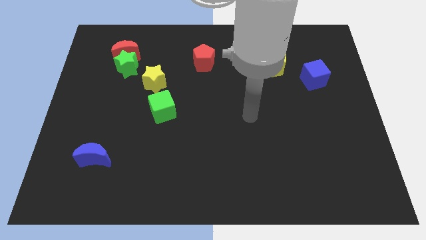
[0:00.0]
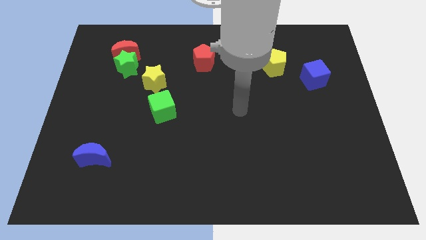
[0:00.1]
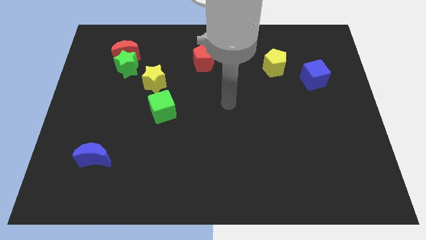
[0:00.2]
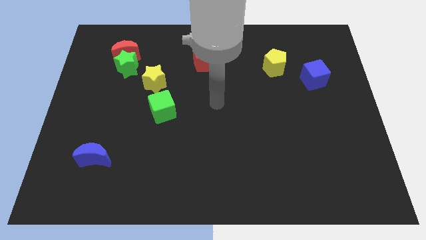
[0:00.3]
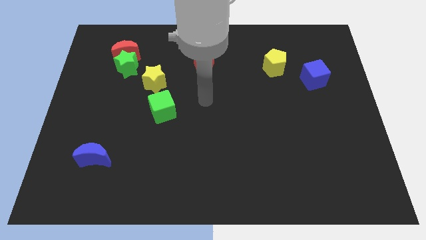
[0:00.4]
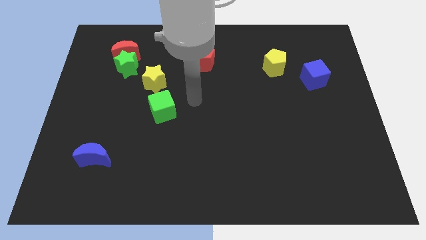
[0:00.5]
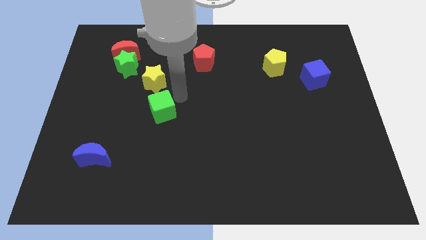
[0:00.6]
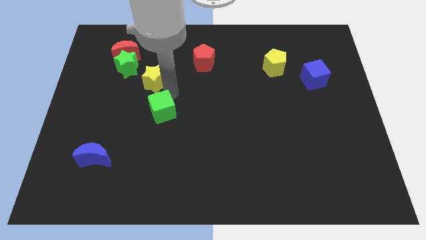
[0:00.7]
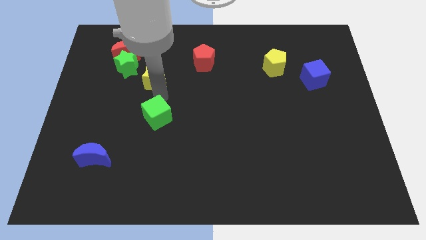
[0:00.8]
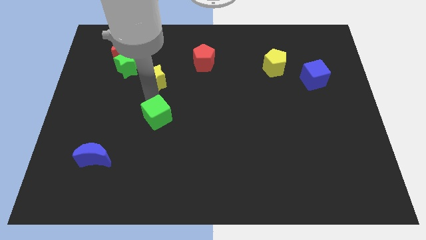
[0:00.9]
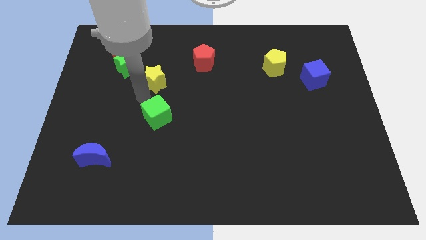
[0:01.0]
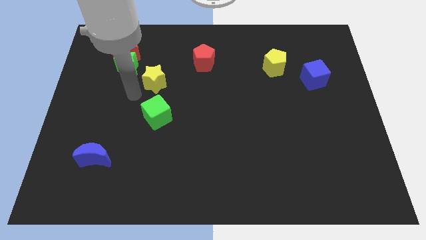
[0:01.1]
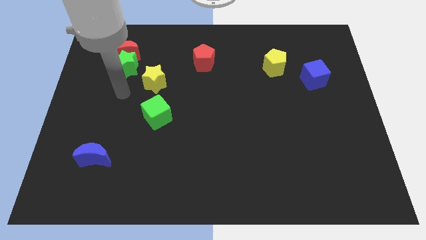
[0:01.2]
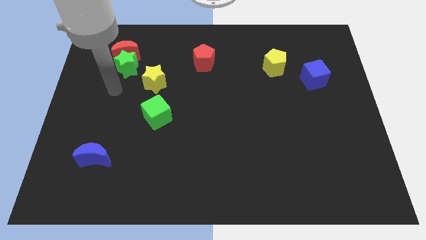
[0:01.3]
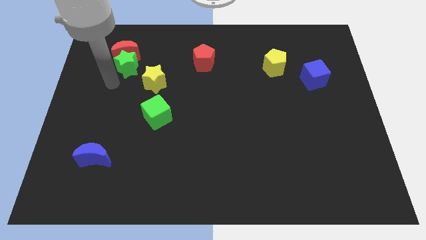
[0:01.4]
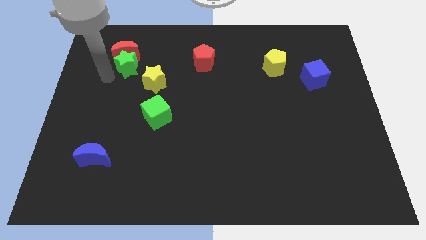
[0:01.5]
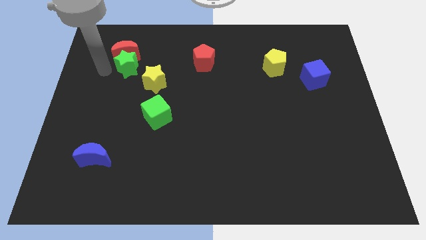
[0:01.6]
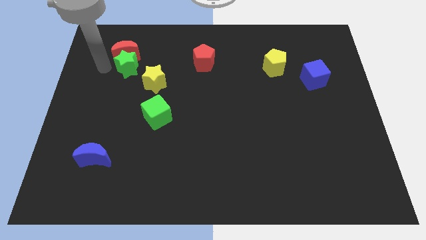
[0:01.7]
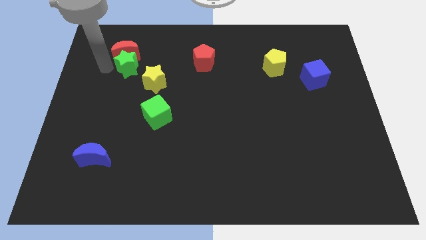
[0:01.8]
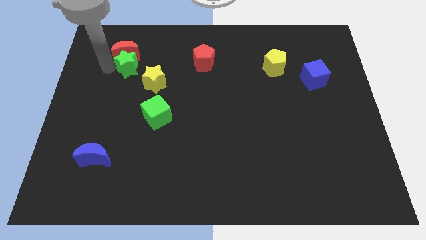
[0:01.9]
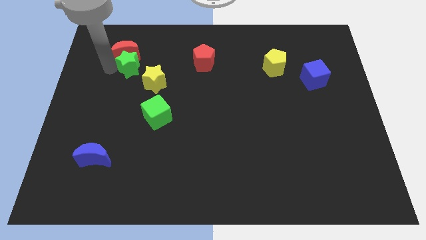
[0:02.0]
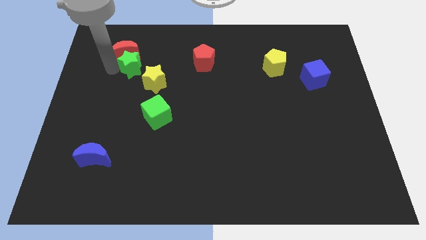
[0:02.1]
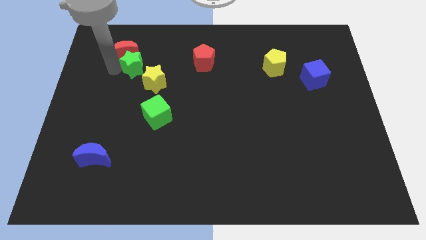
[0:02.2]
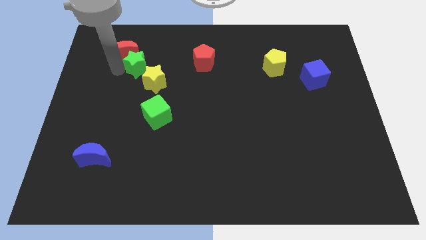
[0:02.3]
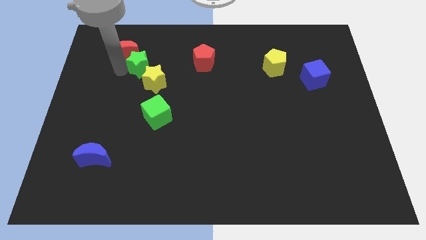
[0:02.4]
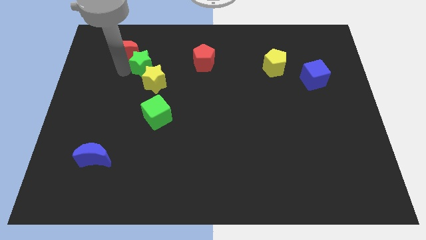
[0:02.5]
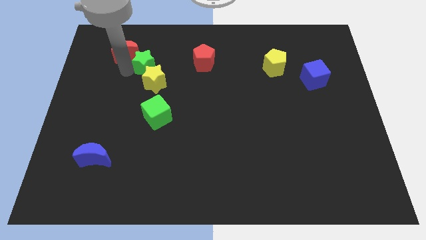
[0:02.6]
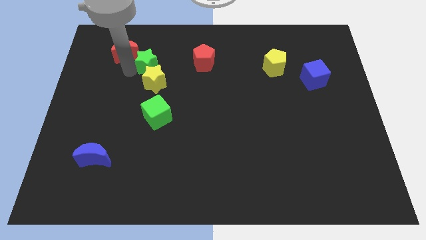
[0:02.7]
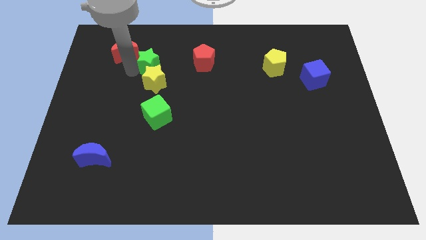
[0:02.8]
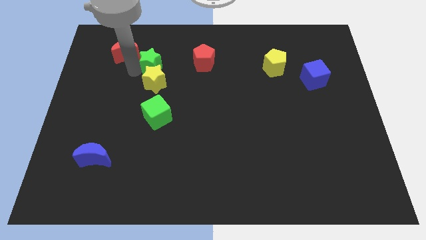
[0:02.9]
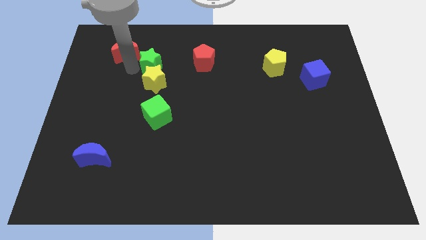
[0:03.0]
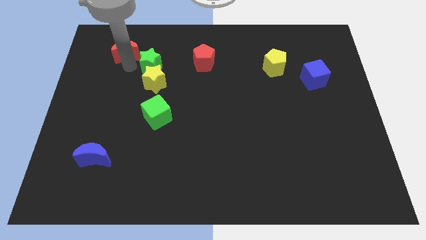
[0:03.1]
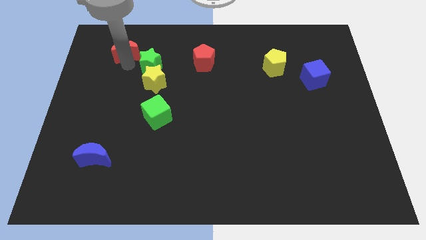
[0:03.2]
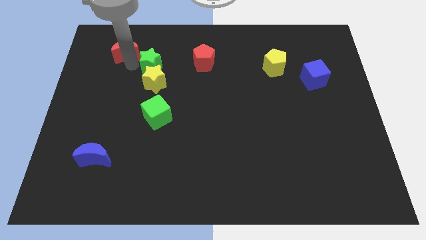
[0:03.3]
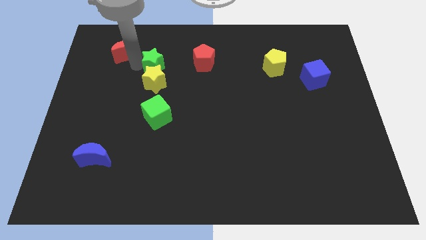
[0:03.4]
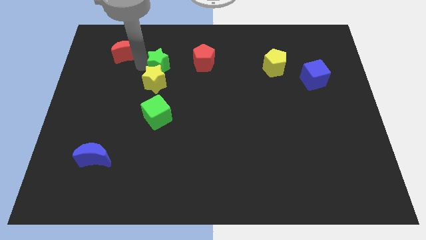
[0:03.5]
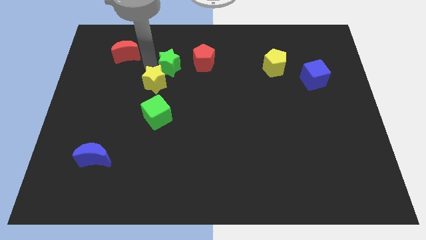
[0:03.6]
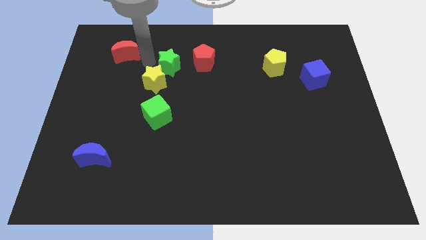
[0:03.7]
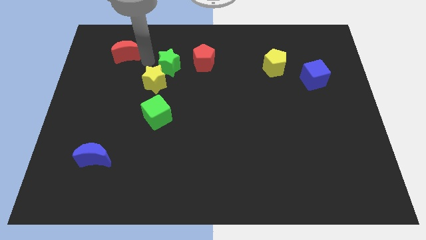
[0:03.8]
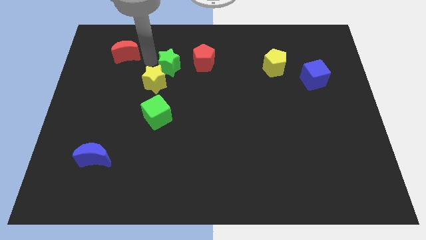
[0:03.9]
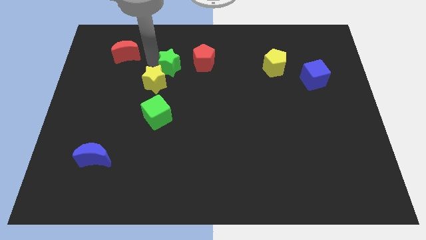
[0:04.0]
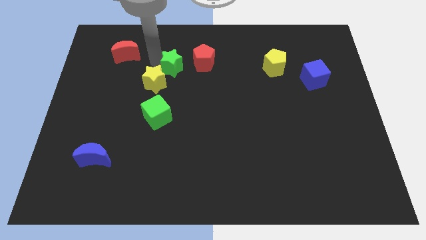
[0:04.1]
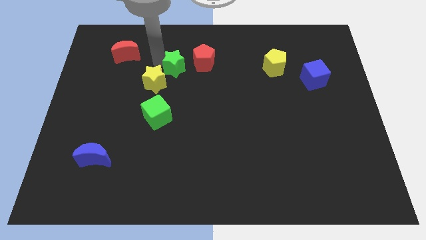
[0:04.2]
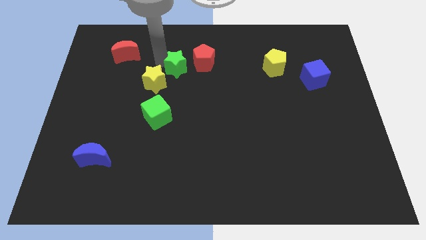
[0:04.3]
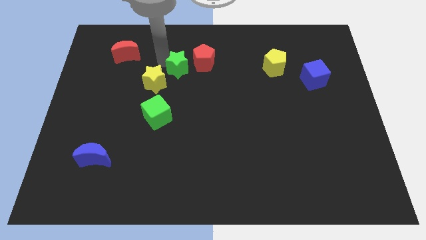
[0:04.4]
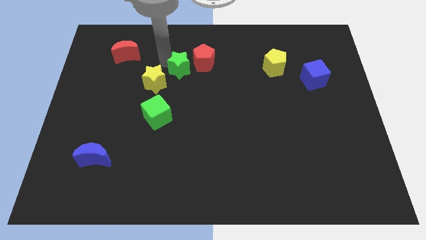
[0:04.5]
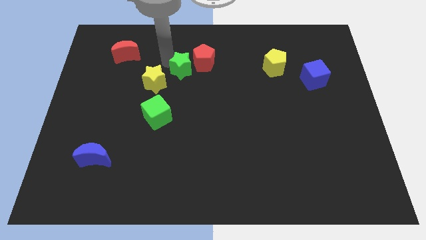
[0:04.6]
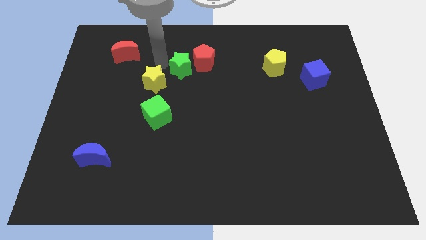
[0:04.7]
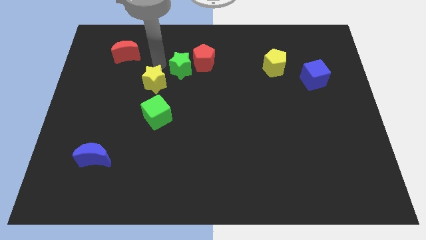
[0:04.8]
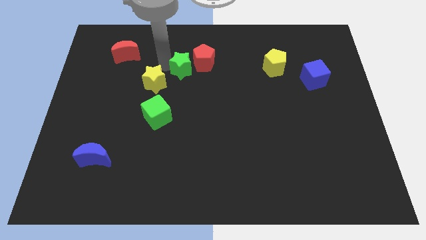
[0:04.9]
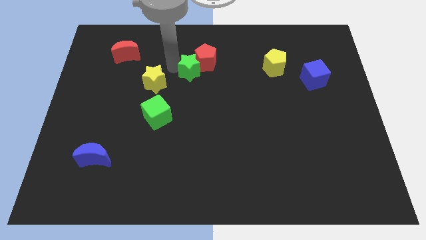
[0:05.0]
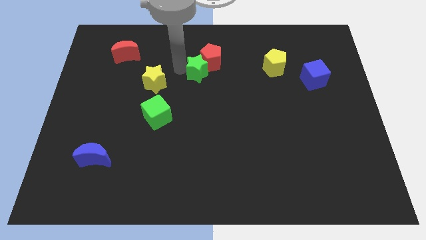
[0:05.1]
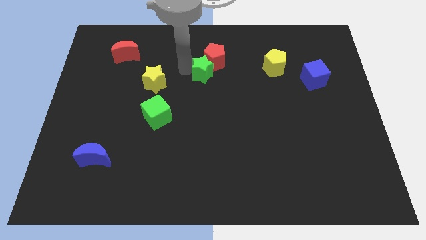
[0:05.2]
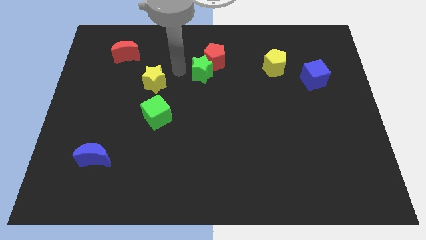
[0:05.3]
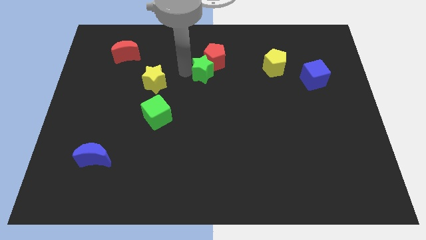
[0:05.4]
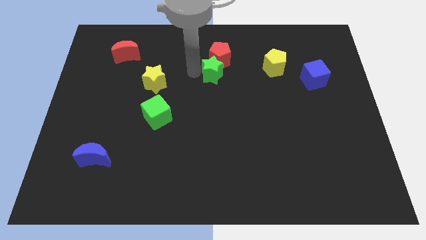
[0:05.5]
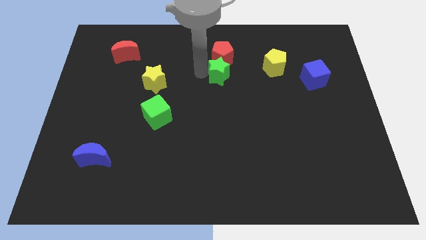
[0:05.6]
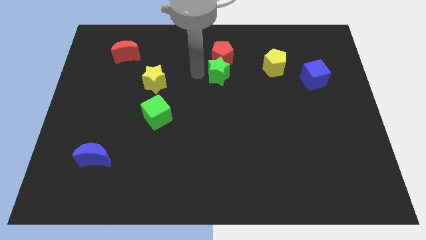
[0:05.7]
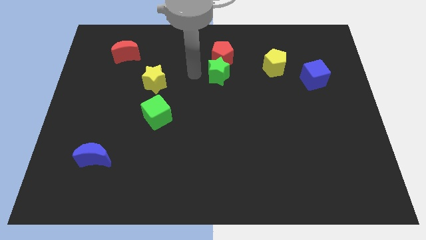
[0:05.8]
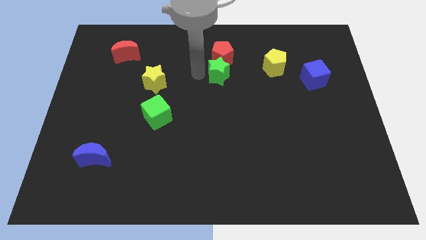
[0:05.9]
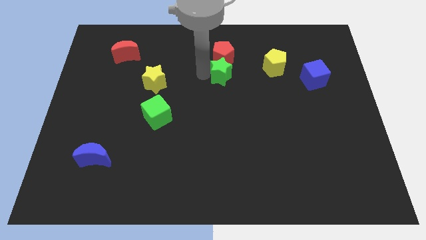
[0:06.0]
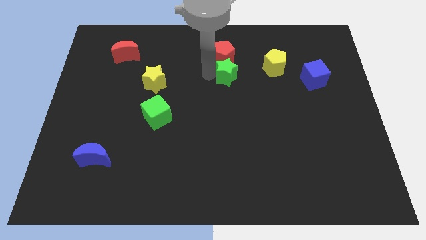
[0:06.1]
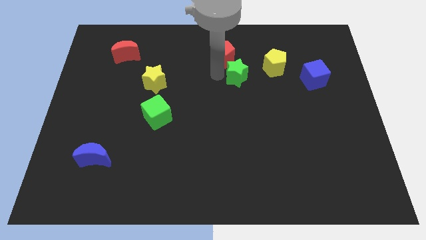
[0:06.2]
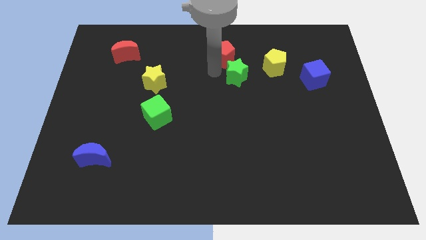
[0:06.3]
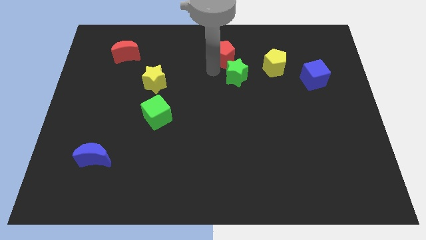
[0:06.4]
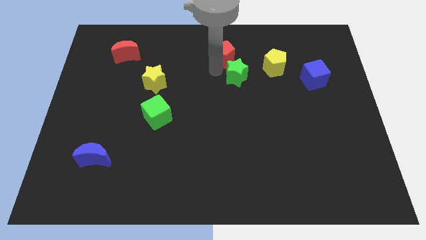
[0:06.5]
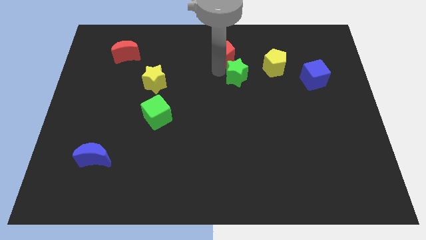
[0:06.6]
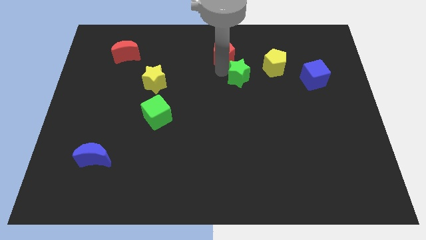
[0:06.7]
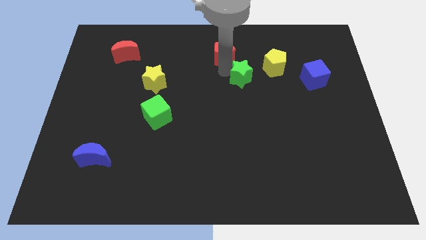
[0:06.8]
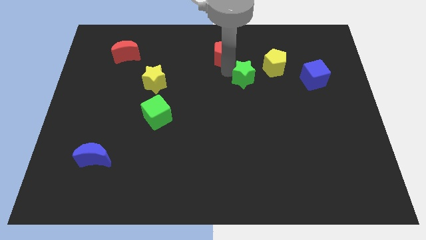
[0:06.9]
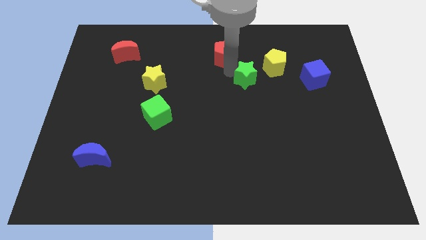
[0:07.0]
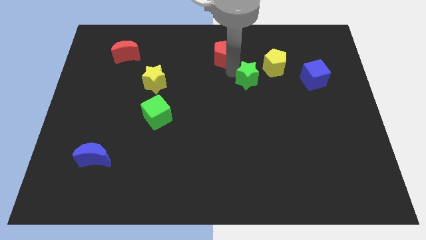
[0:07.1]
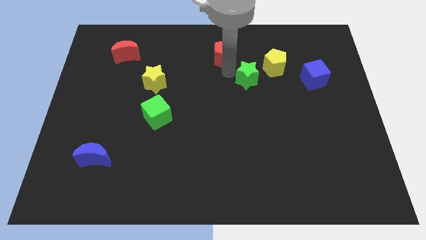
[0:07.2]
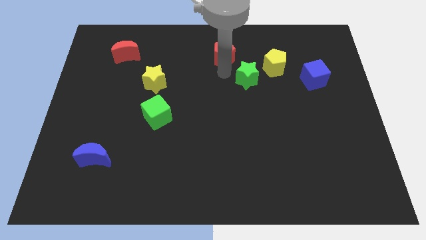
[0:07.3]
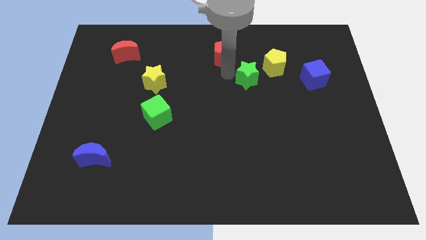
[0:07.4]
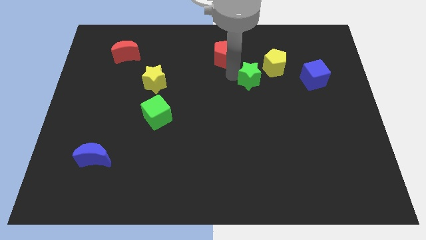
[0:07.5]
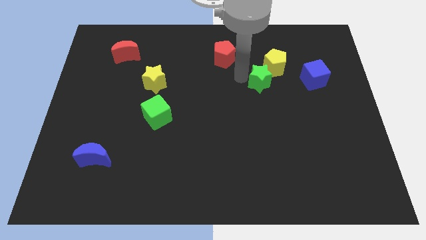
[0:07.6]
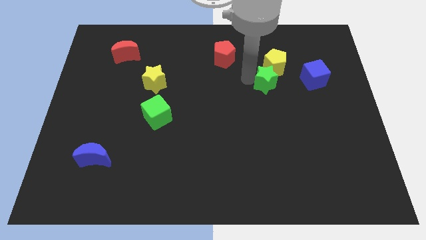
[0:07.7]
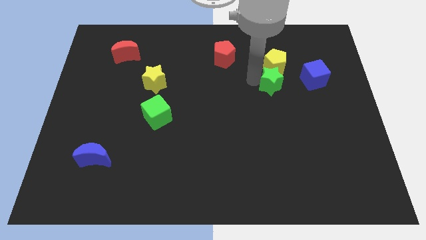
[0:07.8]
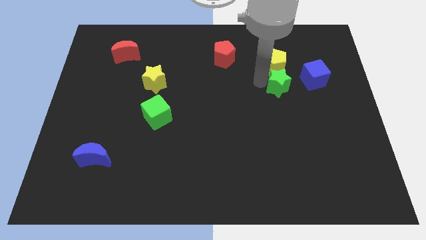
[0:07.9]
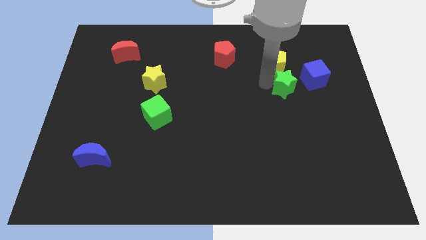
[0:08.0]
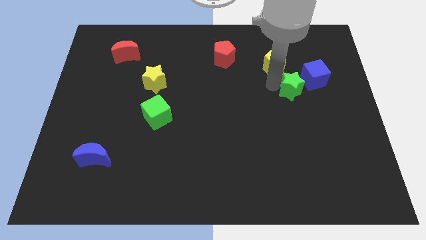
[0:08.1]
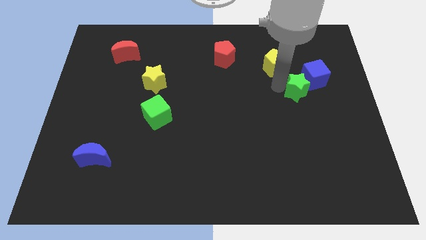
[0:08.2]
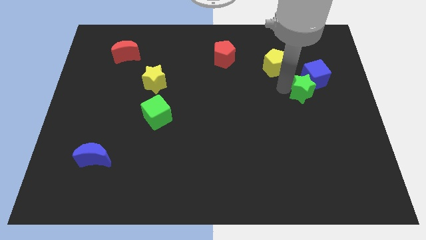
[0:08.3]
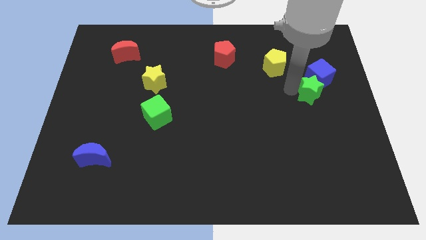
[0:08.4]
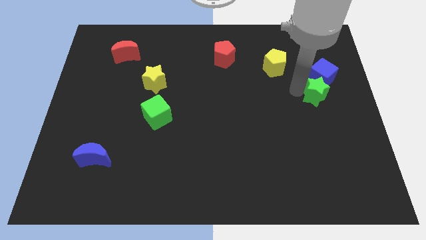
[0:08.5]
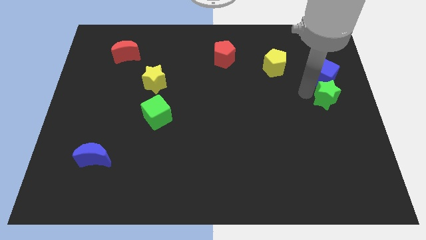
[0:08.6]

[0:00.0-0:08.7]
move the green star to the right side
